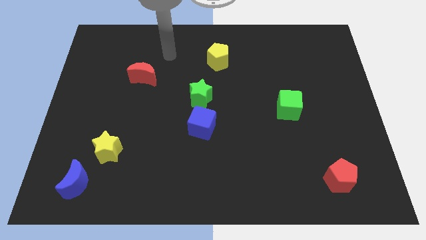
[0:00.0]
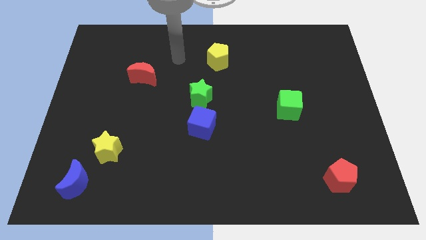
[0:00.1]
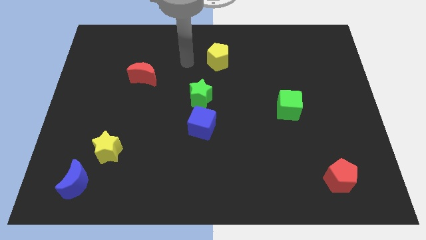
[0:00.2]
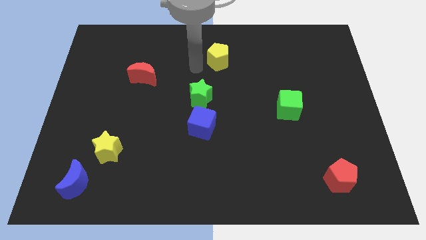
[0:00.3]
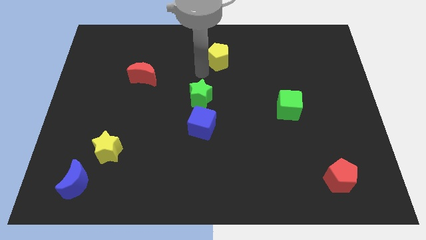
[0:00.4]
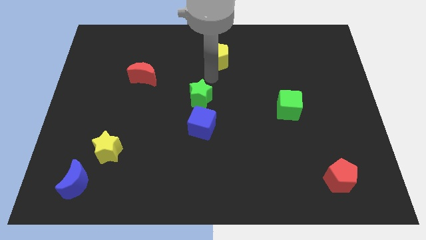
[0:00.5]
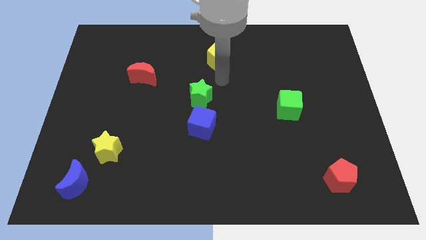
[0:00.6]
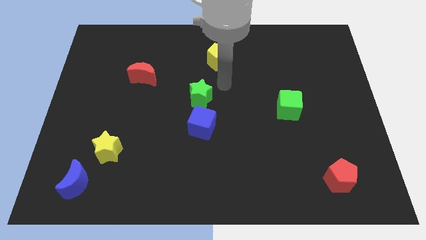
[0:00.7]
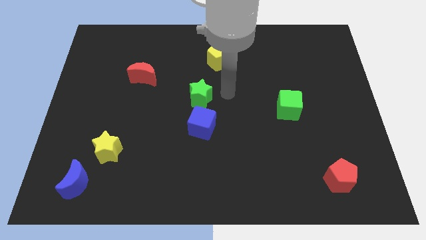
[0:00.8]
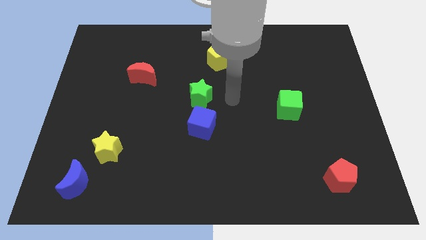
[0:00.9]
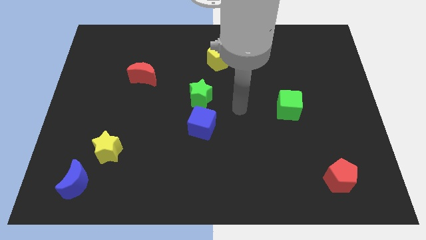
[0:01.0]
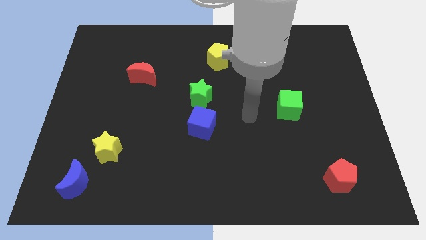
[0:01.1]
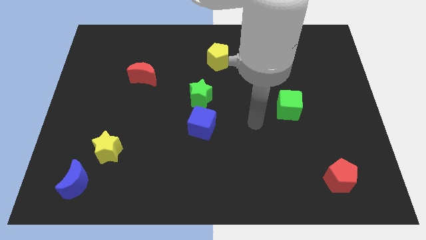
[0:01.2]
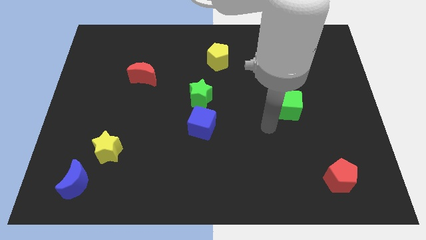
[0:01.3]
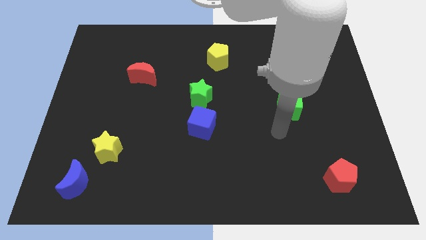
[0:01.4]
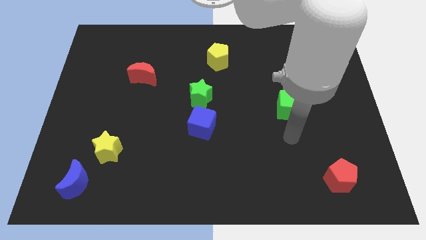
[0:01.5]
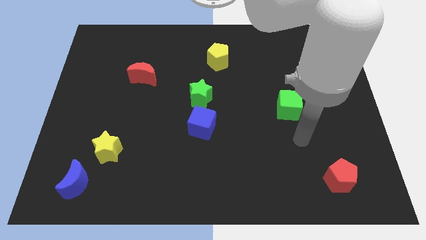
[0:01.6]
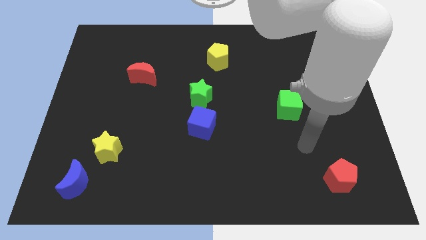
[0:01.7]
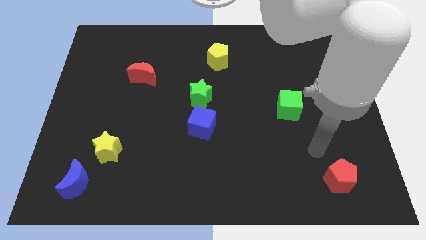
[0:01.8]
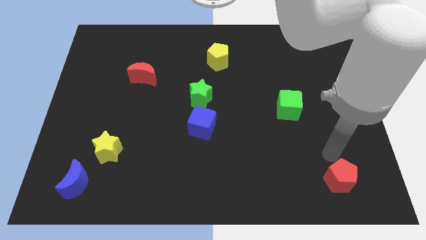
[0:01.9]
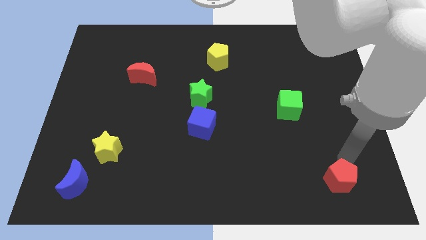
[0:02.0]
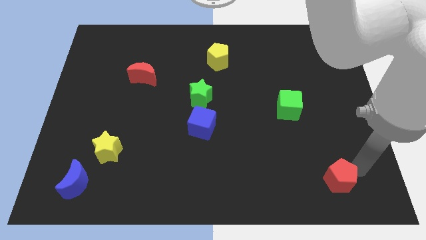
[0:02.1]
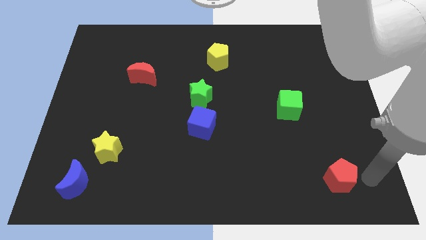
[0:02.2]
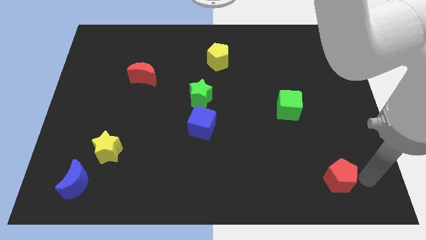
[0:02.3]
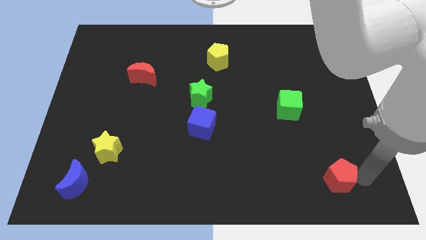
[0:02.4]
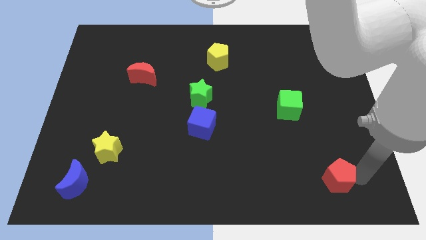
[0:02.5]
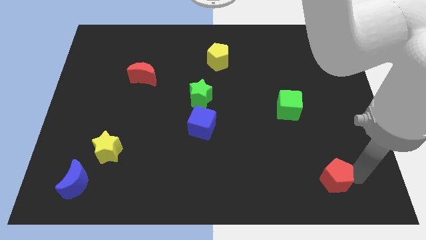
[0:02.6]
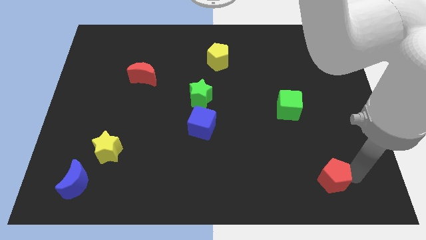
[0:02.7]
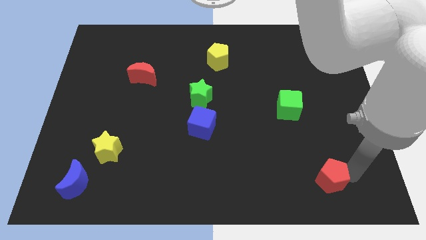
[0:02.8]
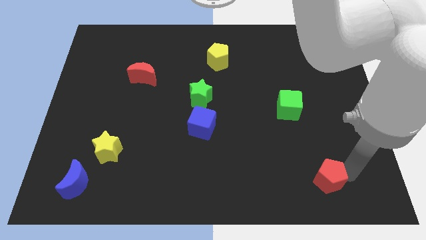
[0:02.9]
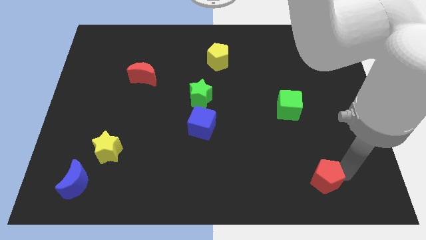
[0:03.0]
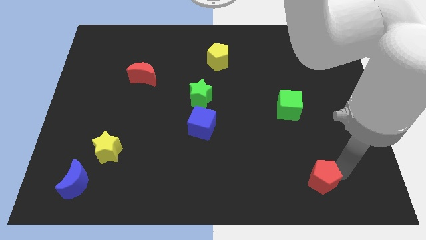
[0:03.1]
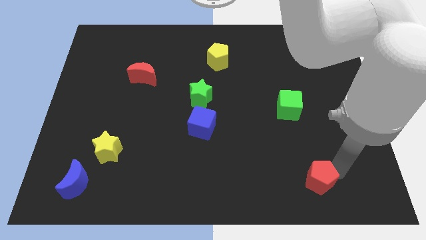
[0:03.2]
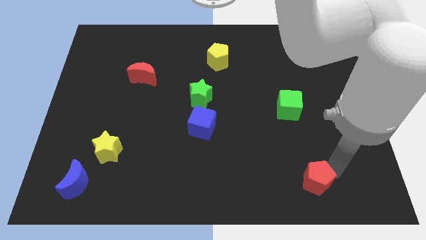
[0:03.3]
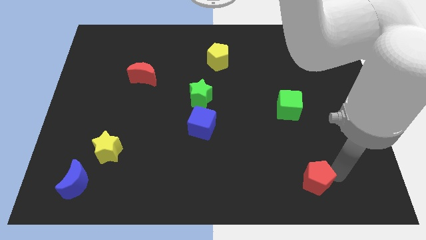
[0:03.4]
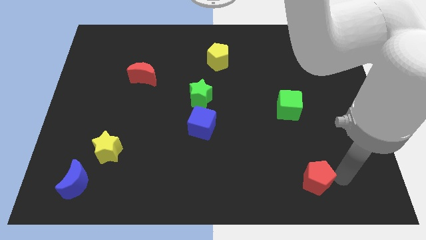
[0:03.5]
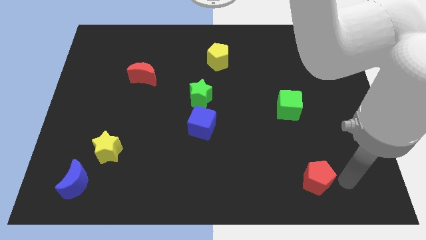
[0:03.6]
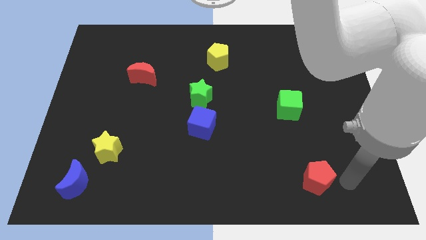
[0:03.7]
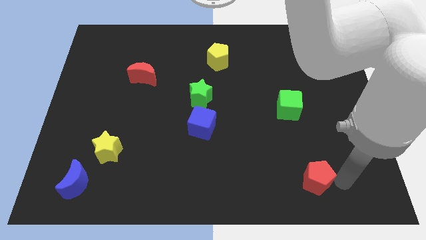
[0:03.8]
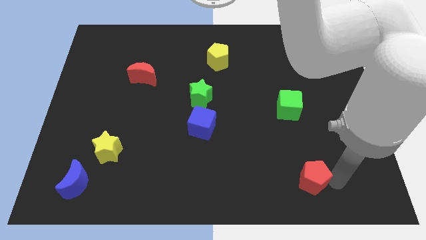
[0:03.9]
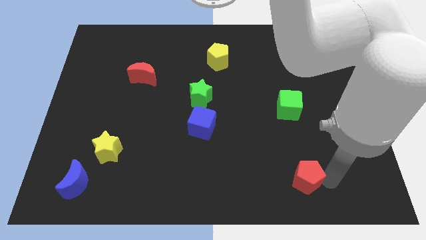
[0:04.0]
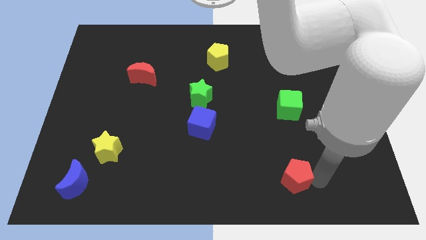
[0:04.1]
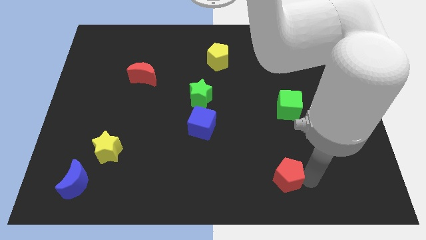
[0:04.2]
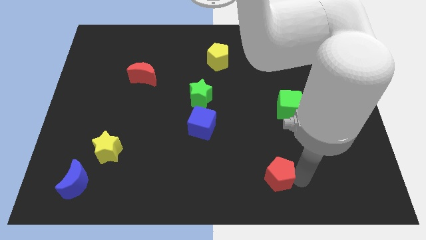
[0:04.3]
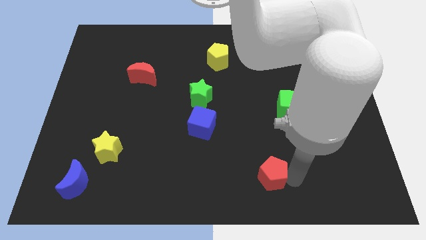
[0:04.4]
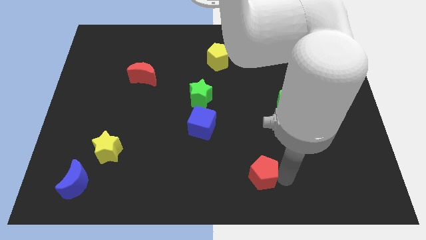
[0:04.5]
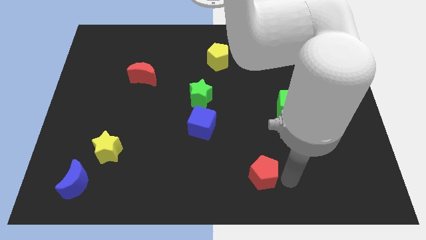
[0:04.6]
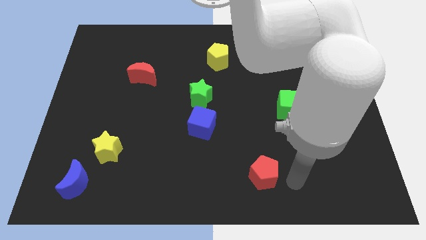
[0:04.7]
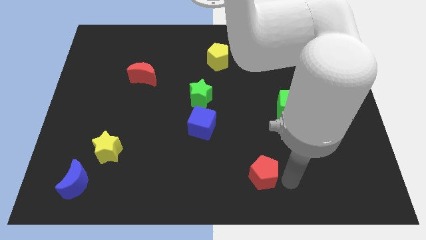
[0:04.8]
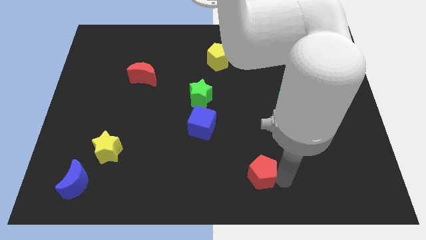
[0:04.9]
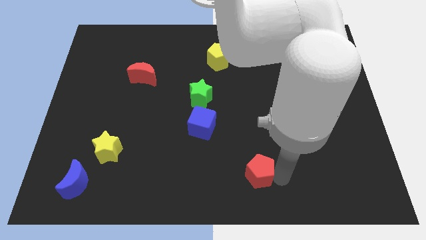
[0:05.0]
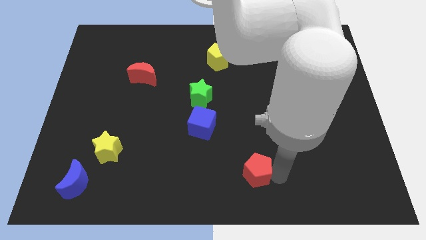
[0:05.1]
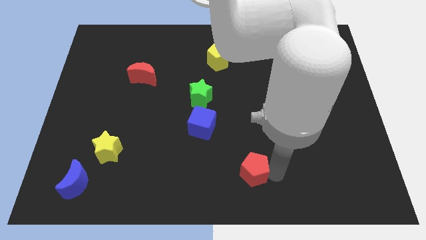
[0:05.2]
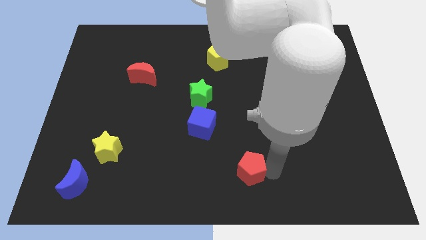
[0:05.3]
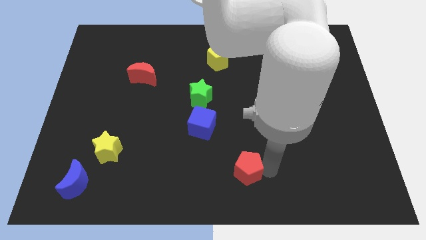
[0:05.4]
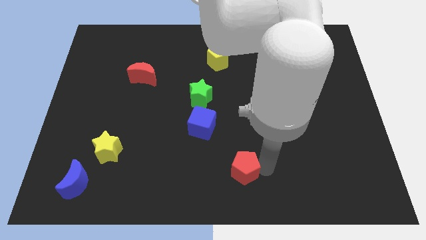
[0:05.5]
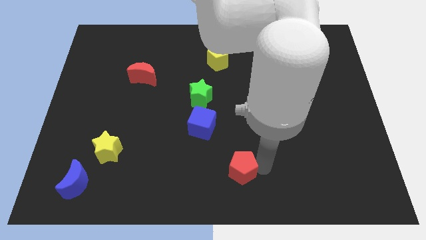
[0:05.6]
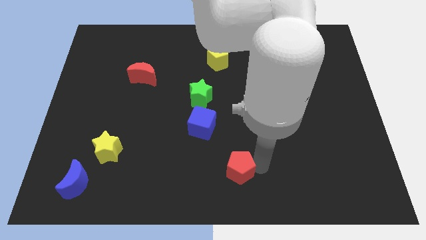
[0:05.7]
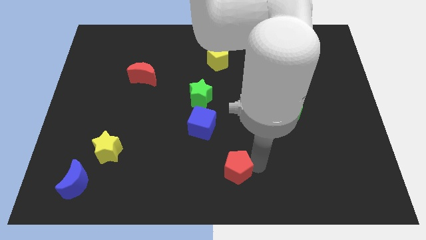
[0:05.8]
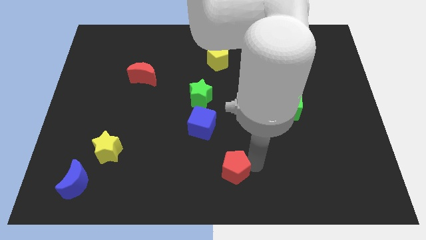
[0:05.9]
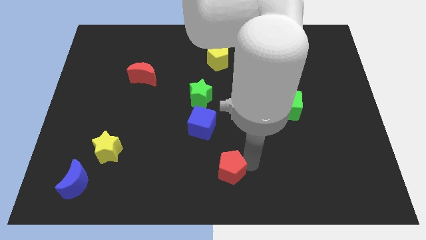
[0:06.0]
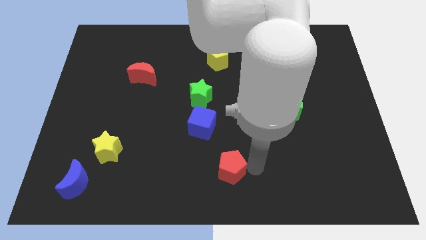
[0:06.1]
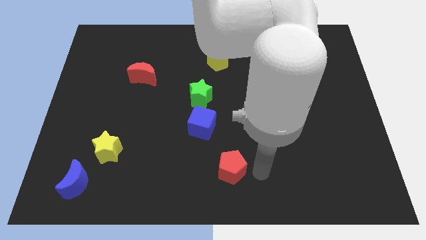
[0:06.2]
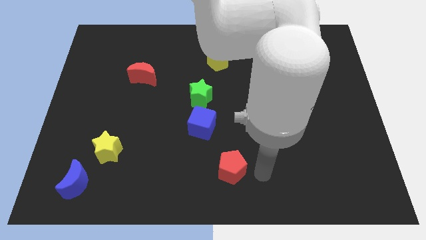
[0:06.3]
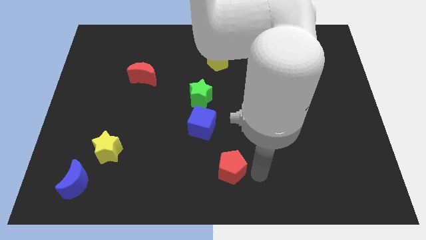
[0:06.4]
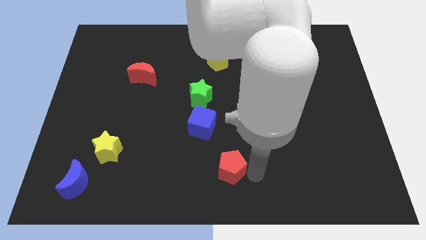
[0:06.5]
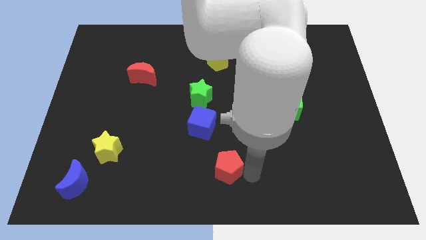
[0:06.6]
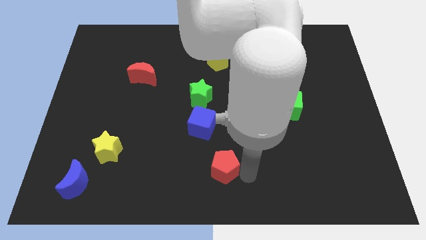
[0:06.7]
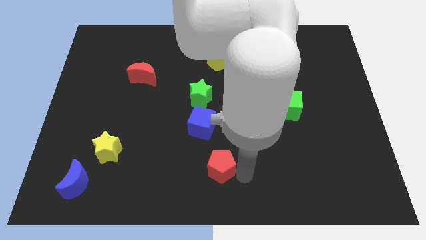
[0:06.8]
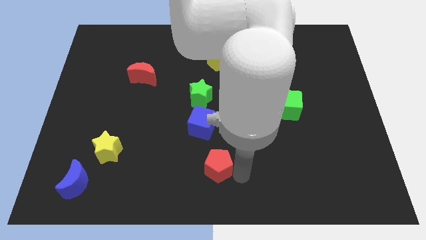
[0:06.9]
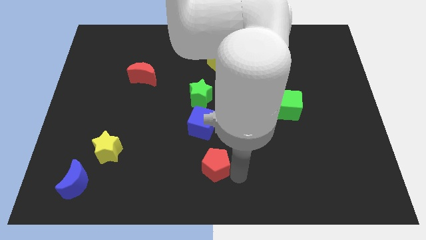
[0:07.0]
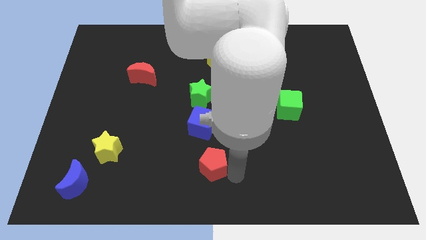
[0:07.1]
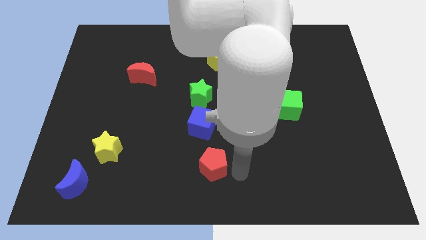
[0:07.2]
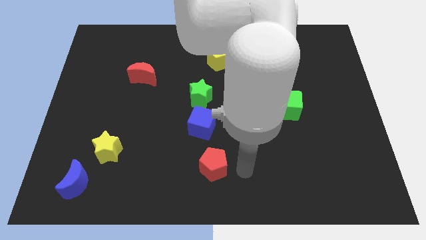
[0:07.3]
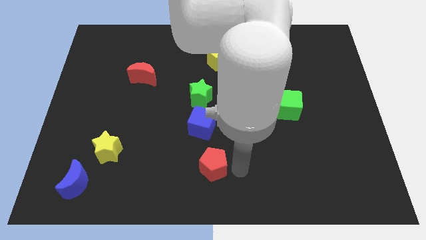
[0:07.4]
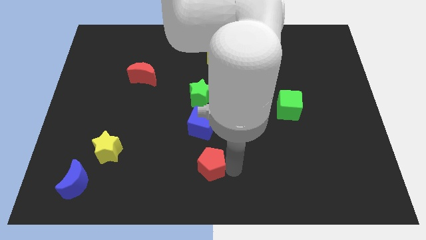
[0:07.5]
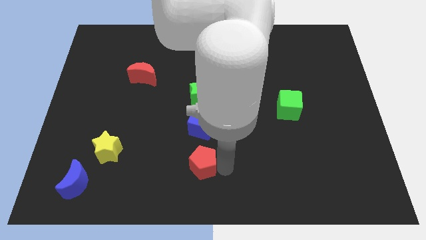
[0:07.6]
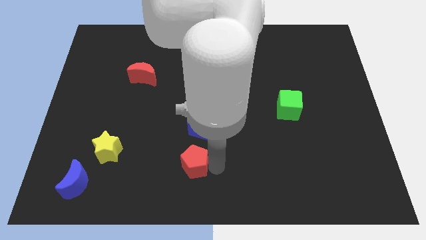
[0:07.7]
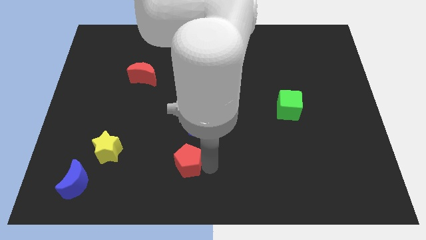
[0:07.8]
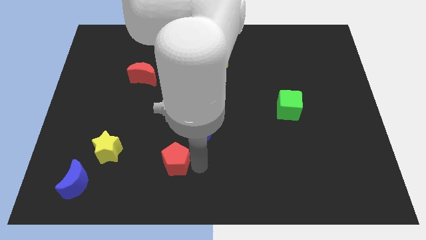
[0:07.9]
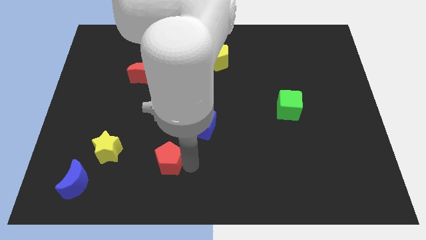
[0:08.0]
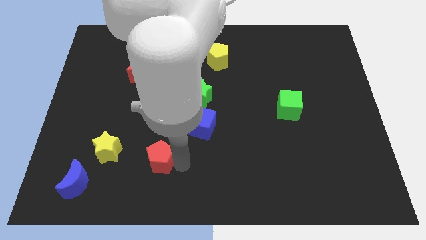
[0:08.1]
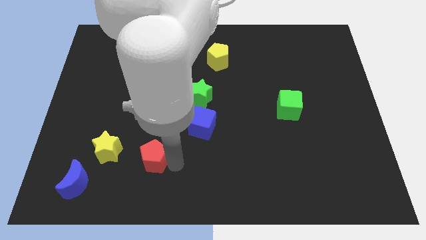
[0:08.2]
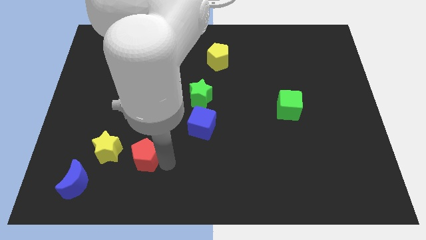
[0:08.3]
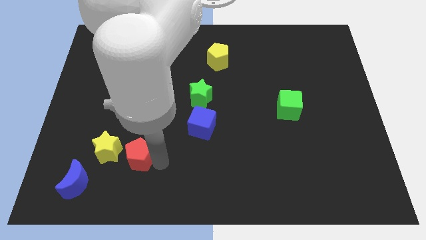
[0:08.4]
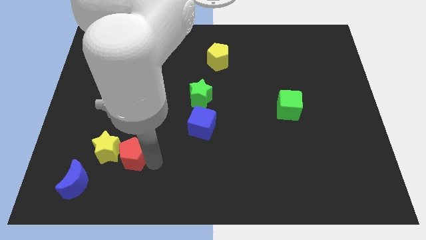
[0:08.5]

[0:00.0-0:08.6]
put the red pentagon next to the yellow star
